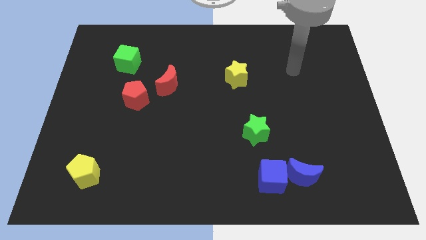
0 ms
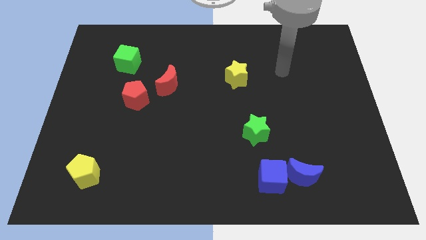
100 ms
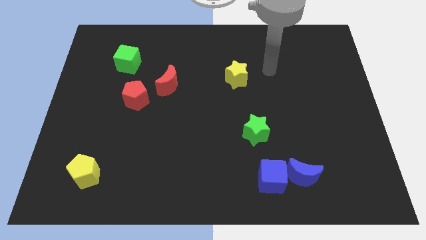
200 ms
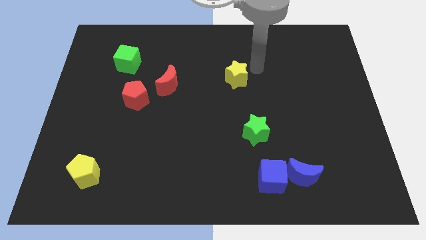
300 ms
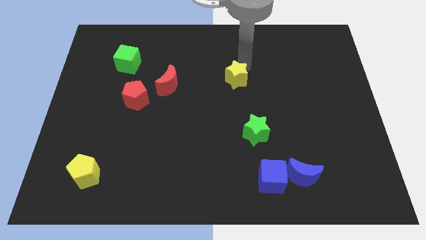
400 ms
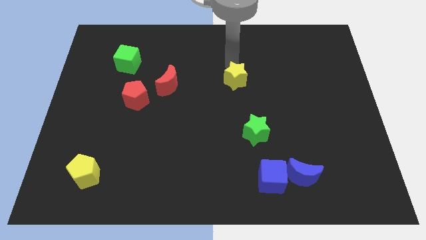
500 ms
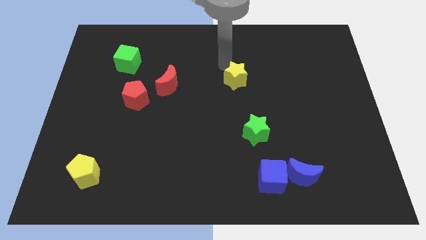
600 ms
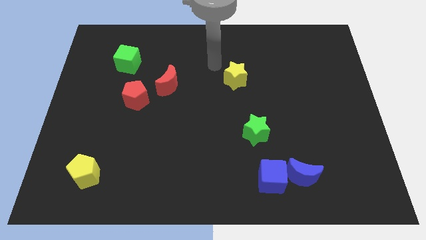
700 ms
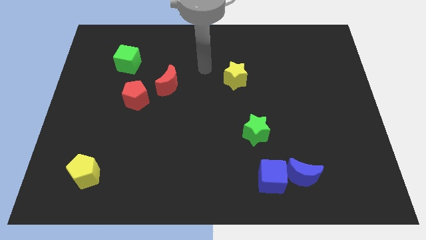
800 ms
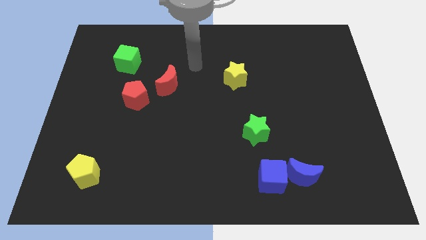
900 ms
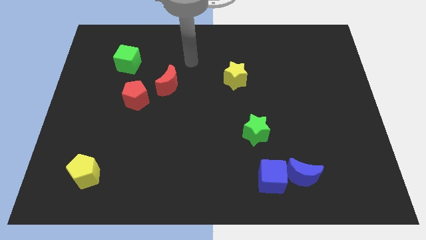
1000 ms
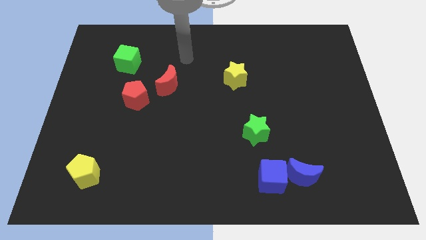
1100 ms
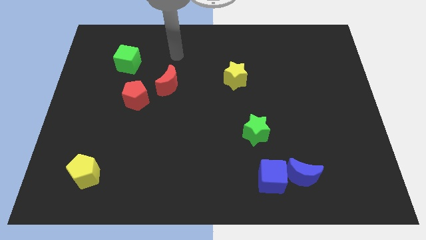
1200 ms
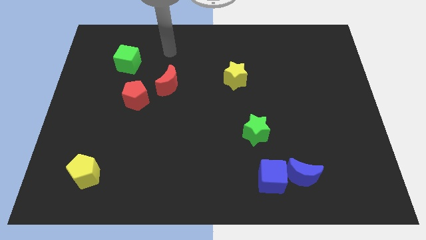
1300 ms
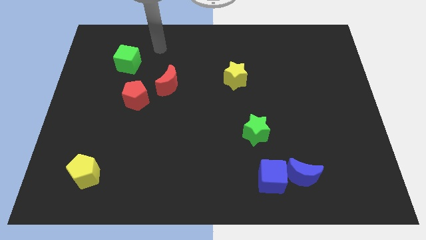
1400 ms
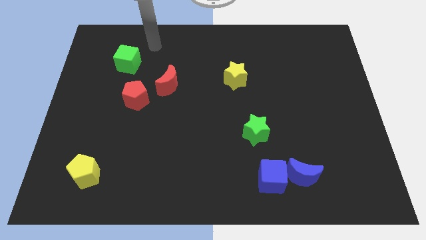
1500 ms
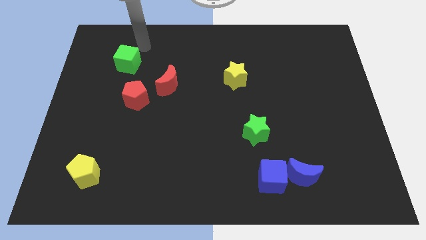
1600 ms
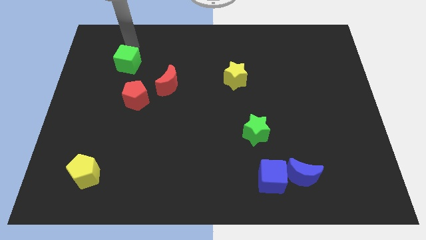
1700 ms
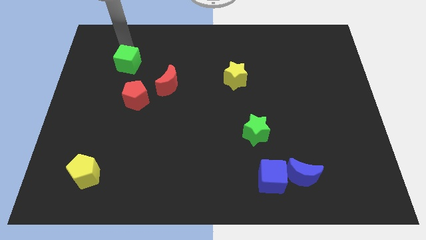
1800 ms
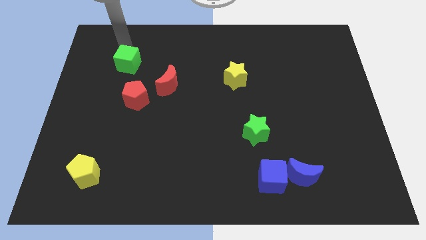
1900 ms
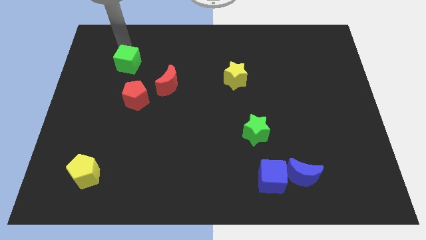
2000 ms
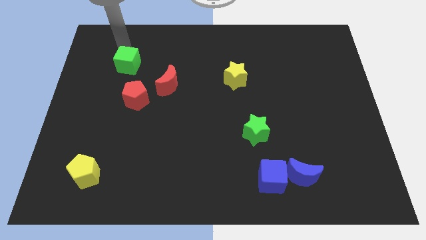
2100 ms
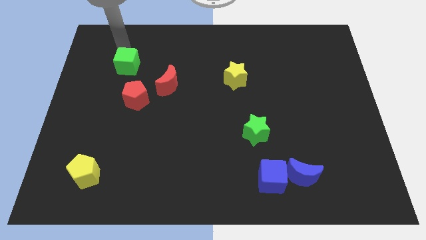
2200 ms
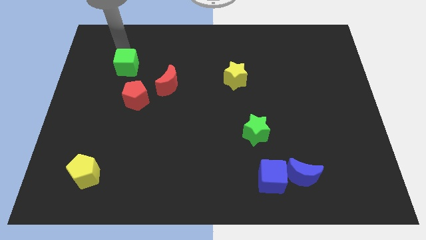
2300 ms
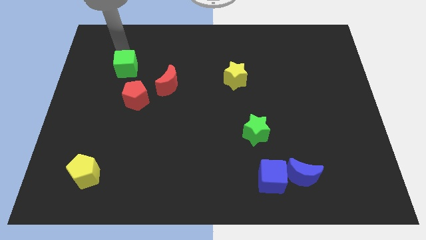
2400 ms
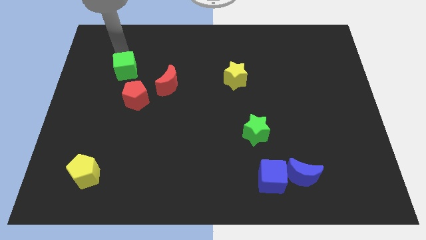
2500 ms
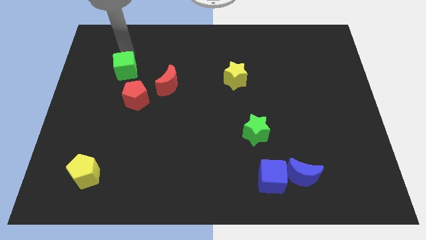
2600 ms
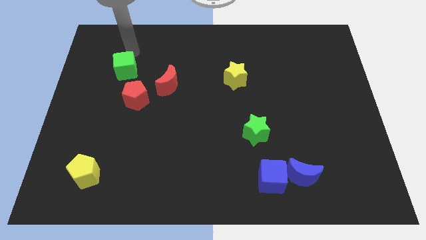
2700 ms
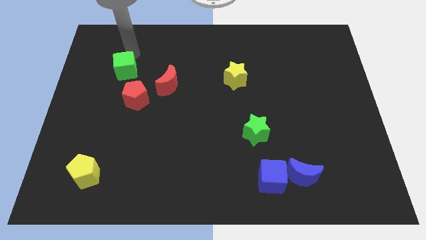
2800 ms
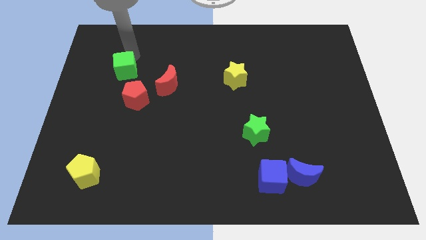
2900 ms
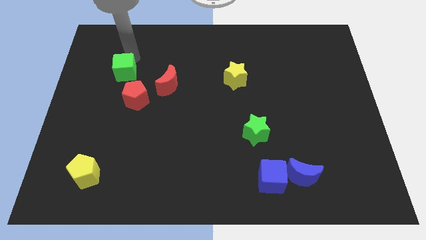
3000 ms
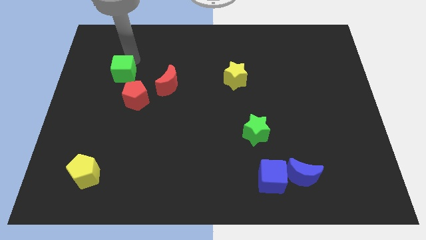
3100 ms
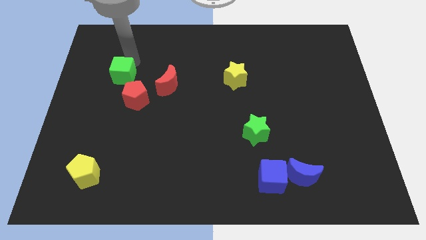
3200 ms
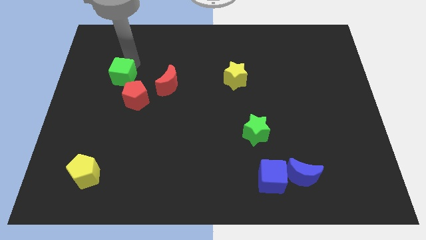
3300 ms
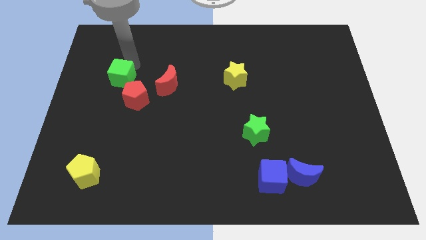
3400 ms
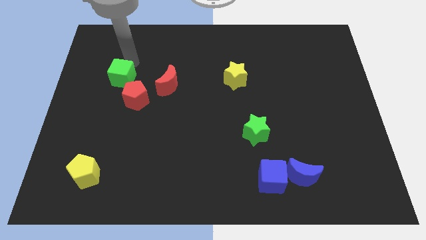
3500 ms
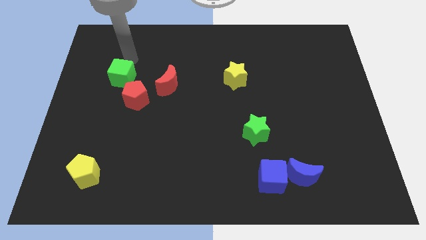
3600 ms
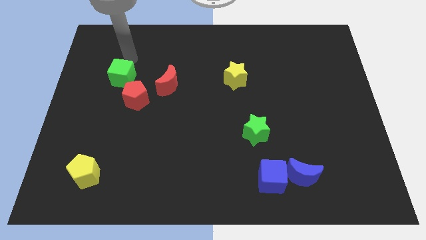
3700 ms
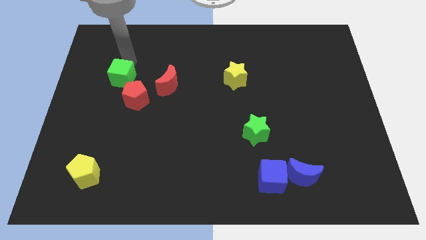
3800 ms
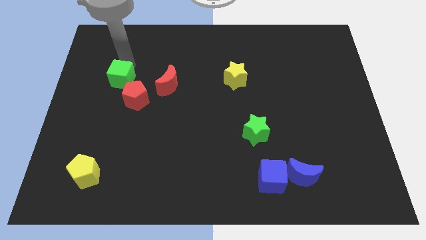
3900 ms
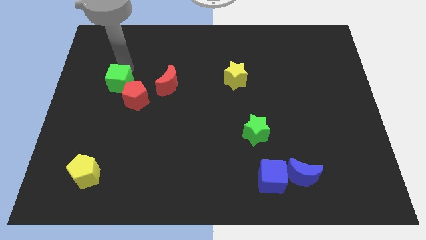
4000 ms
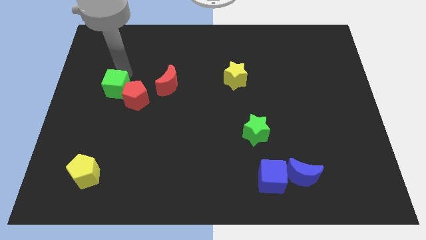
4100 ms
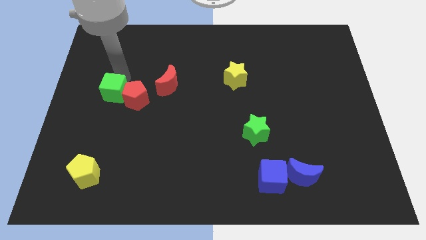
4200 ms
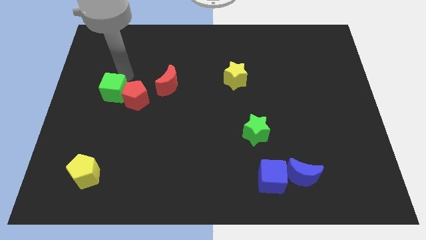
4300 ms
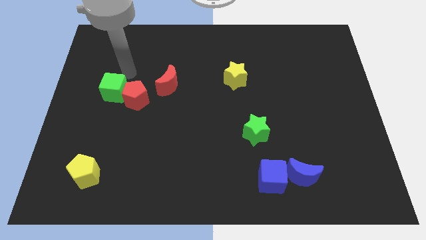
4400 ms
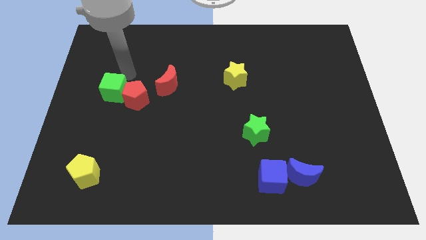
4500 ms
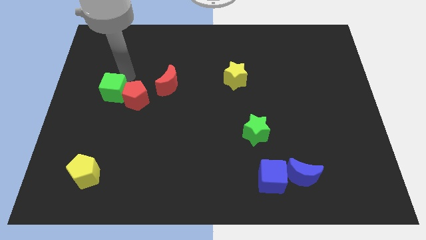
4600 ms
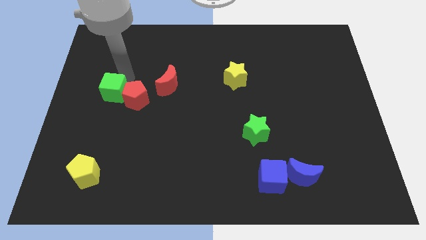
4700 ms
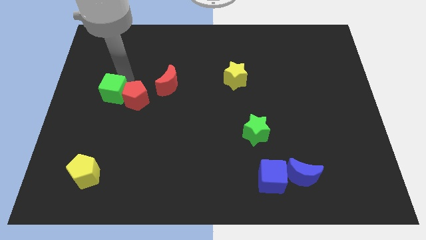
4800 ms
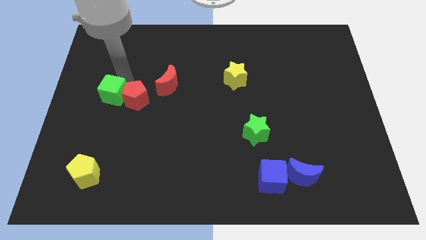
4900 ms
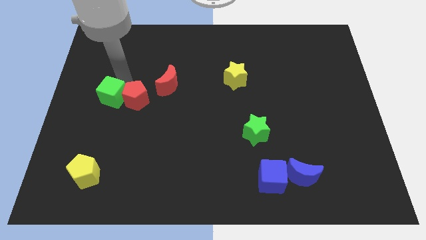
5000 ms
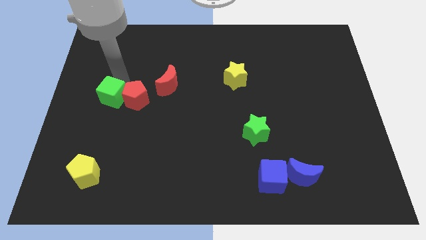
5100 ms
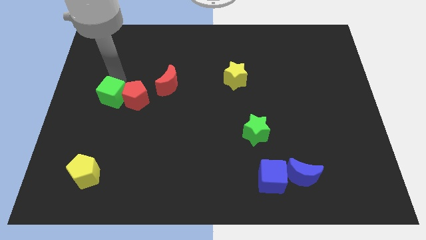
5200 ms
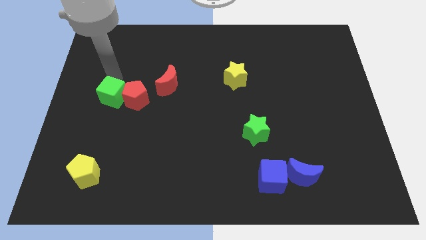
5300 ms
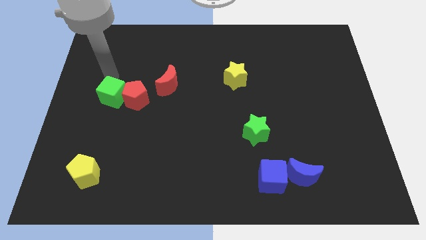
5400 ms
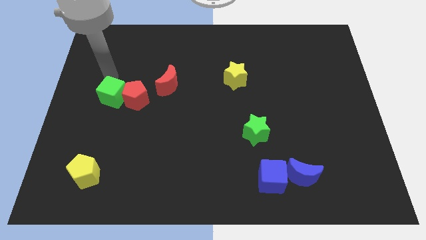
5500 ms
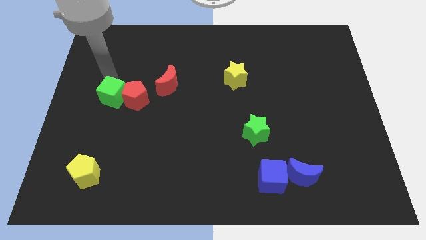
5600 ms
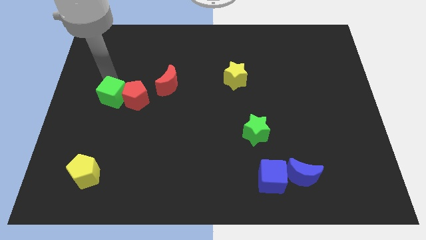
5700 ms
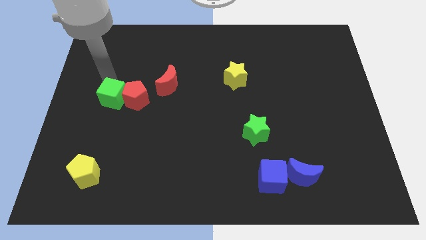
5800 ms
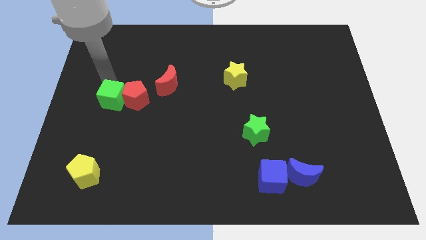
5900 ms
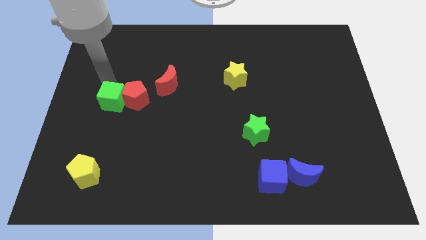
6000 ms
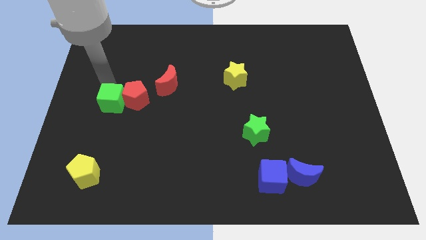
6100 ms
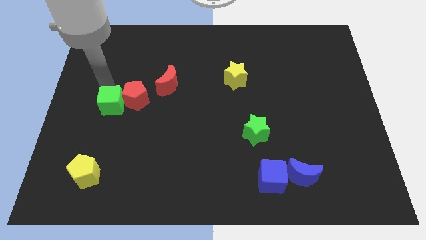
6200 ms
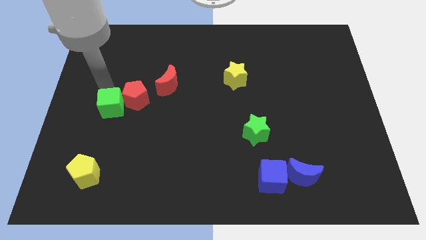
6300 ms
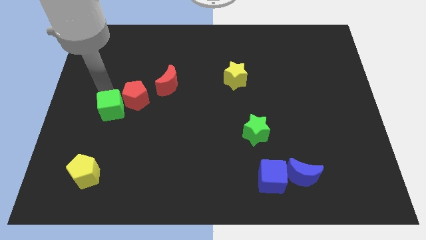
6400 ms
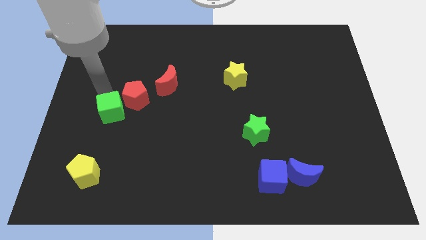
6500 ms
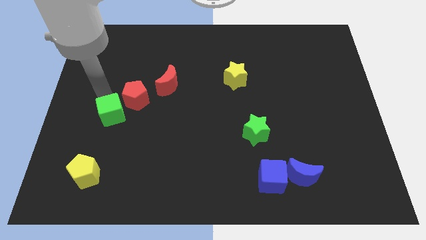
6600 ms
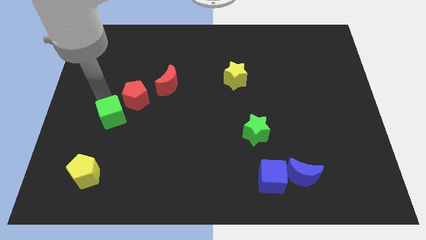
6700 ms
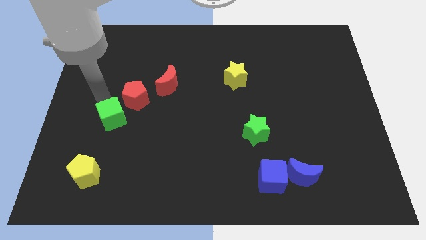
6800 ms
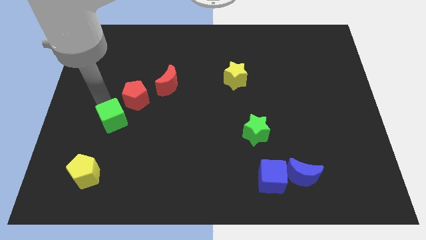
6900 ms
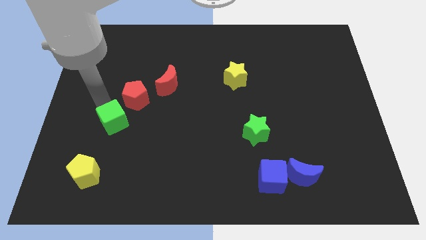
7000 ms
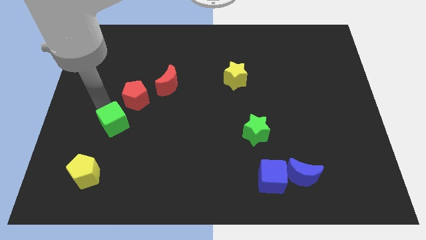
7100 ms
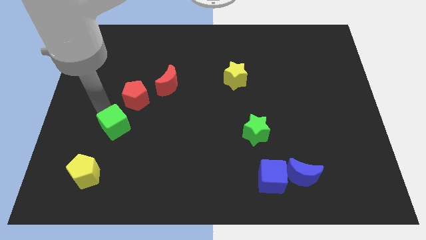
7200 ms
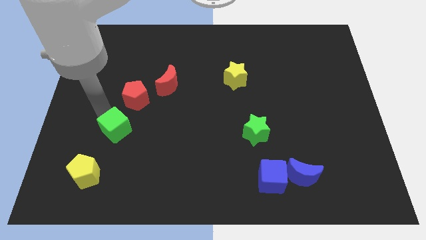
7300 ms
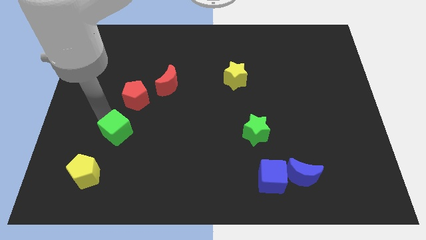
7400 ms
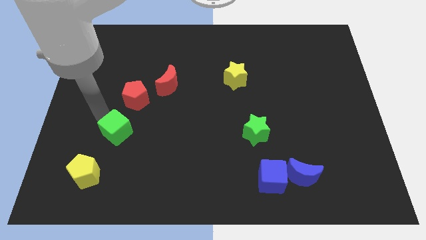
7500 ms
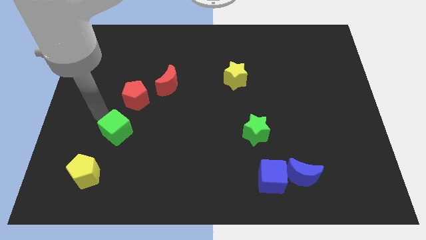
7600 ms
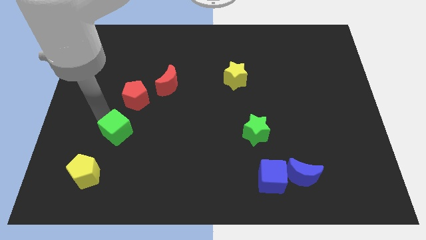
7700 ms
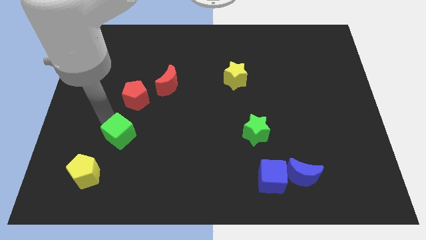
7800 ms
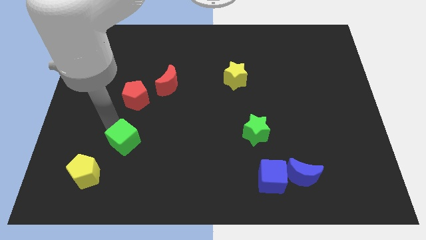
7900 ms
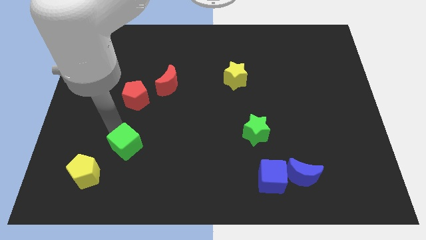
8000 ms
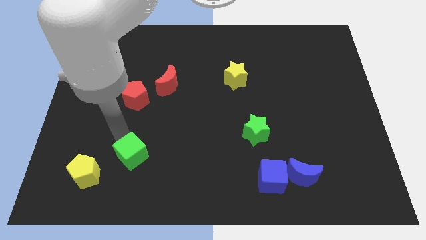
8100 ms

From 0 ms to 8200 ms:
put the green cube to the right side of the yellow pentagon
